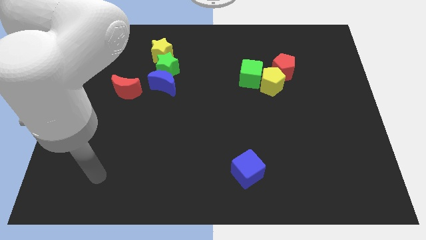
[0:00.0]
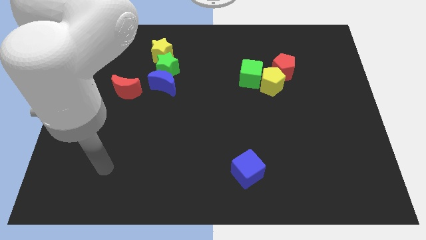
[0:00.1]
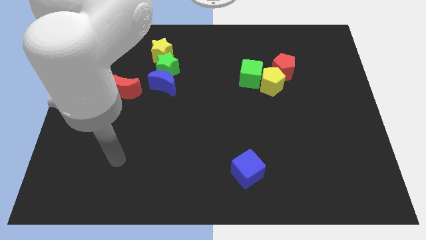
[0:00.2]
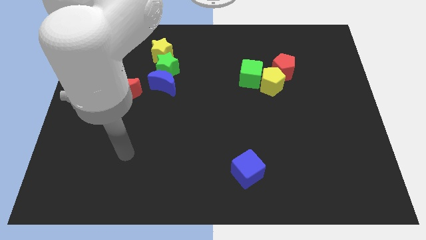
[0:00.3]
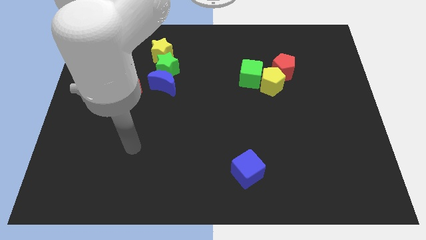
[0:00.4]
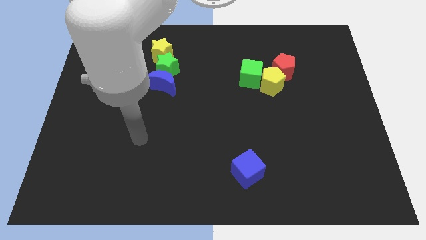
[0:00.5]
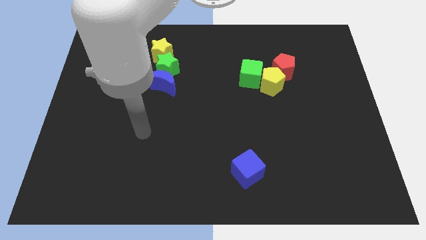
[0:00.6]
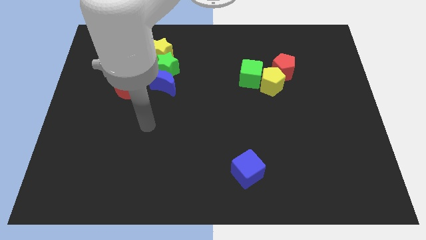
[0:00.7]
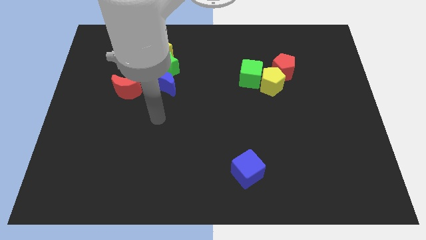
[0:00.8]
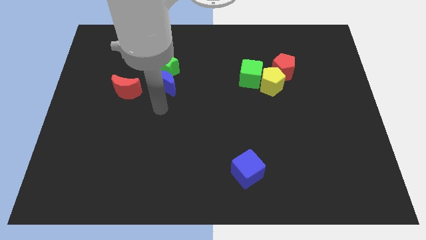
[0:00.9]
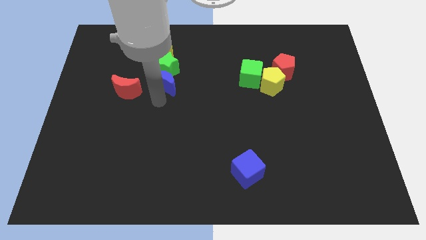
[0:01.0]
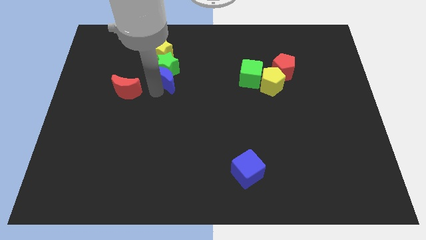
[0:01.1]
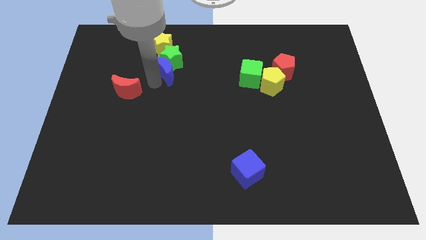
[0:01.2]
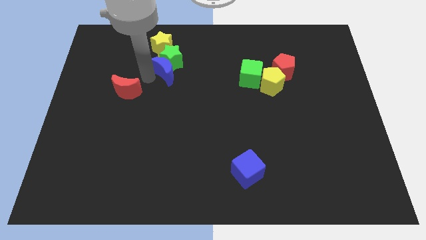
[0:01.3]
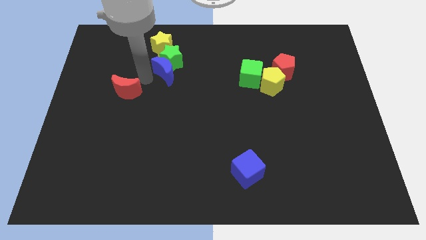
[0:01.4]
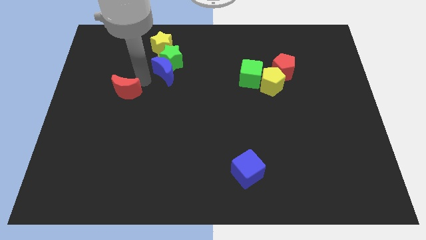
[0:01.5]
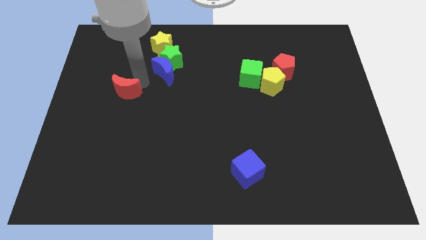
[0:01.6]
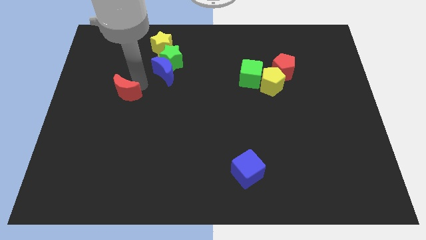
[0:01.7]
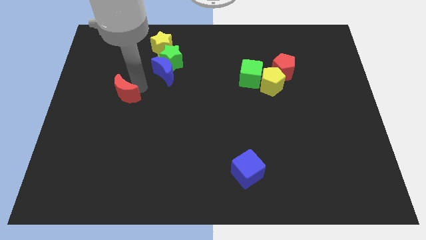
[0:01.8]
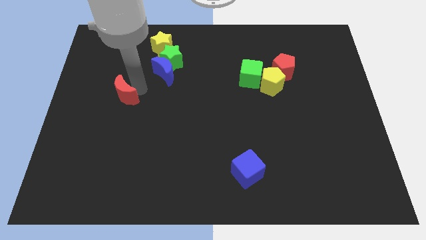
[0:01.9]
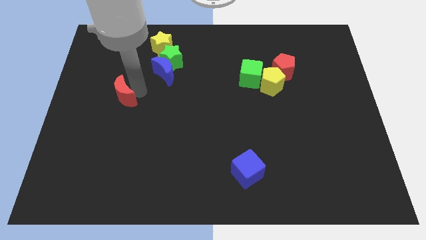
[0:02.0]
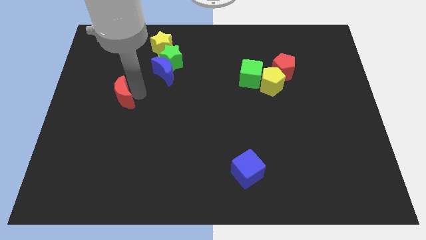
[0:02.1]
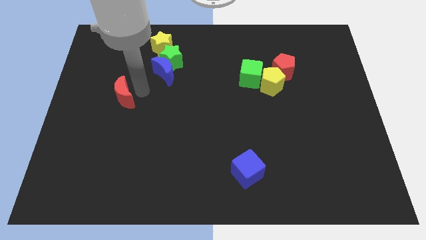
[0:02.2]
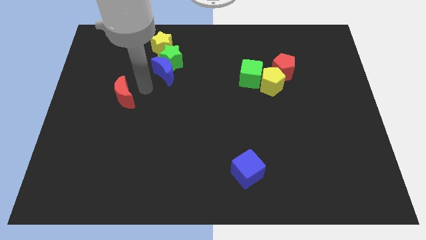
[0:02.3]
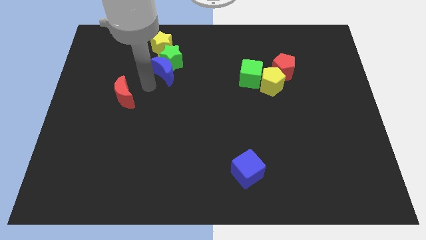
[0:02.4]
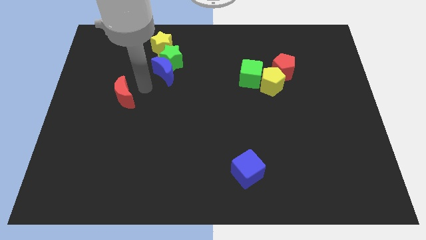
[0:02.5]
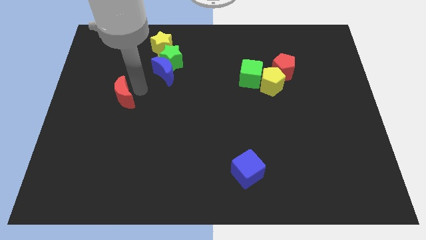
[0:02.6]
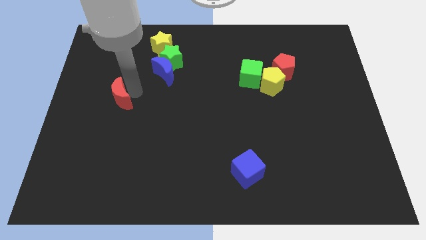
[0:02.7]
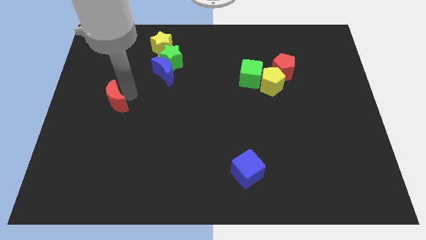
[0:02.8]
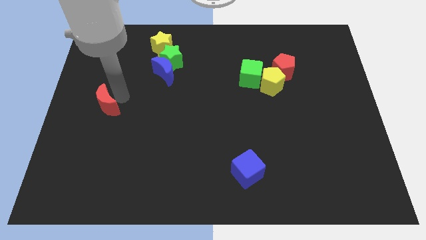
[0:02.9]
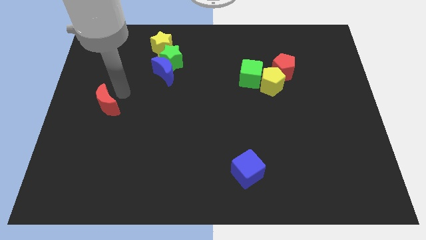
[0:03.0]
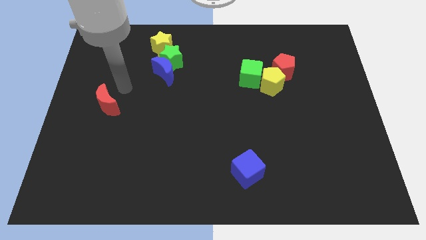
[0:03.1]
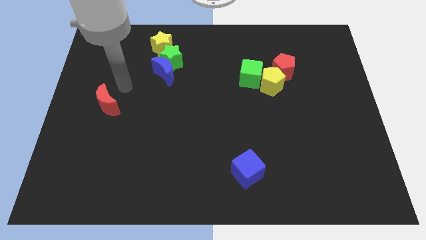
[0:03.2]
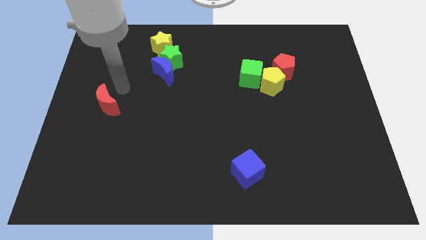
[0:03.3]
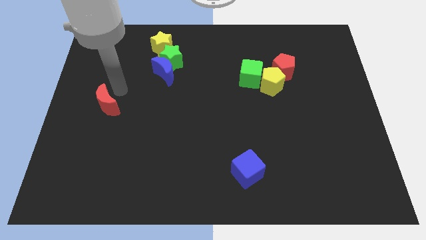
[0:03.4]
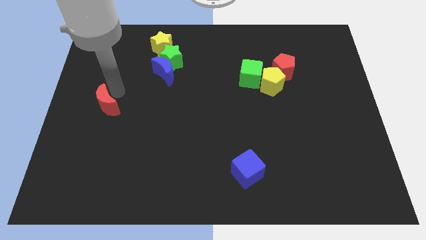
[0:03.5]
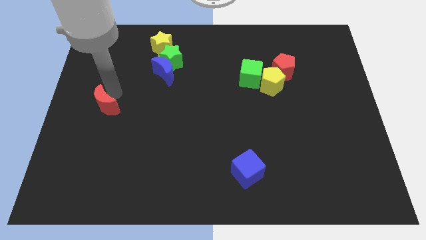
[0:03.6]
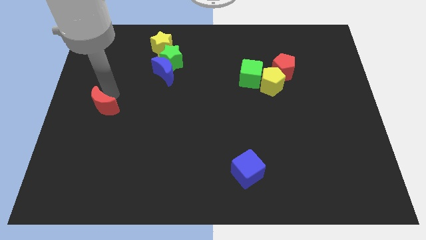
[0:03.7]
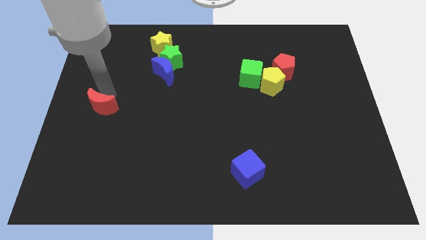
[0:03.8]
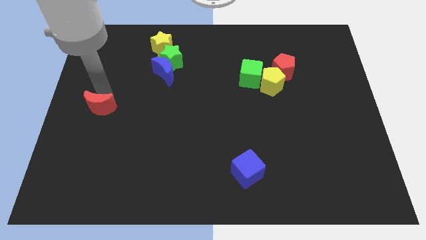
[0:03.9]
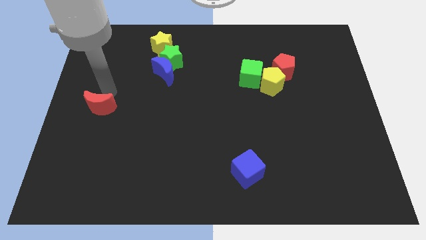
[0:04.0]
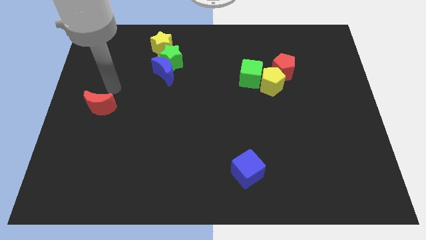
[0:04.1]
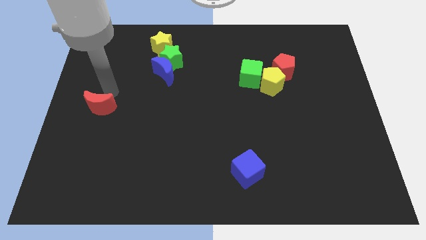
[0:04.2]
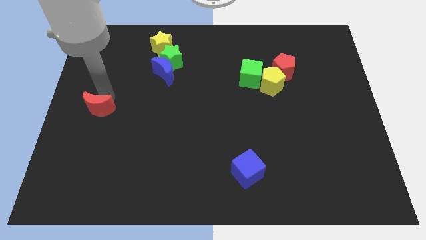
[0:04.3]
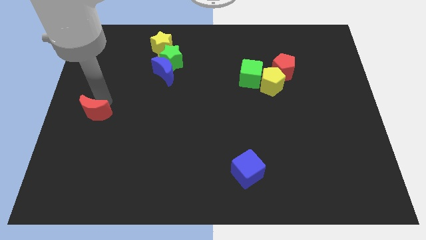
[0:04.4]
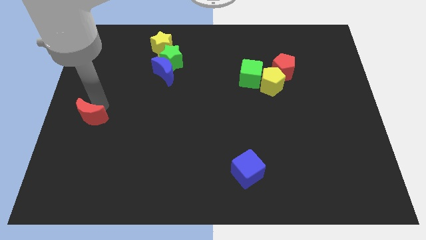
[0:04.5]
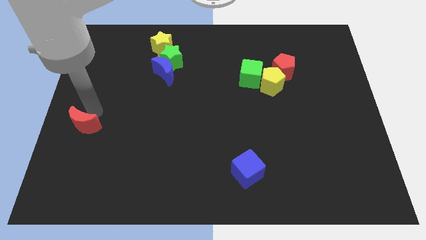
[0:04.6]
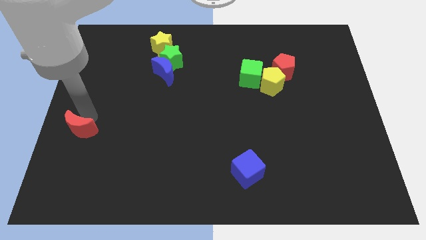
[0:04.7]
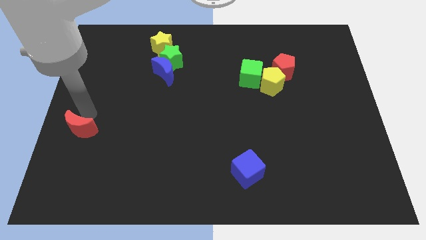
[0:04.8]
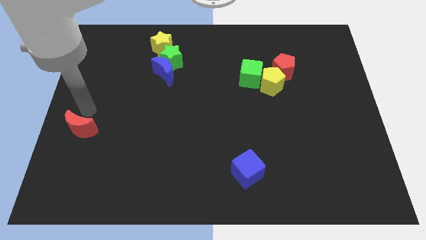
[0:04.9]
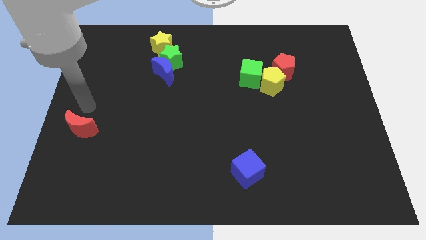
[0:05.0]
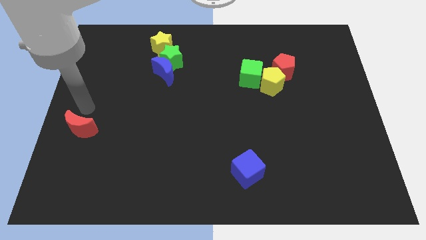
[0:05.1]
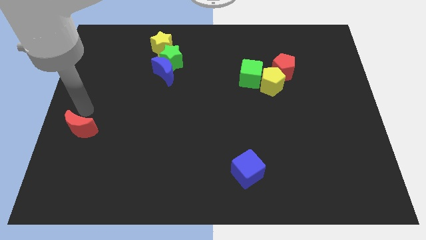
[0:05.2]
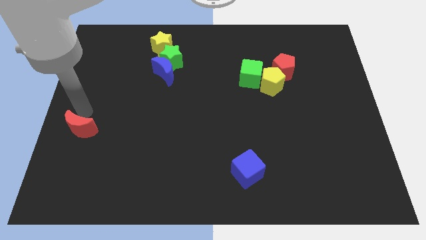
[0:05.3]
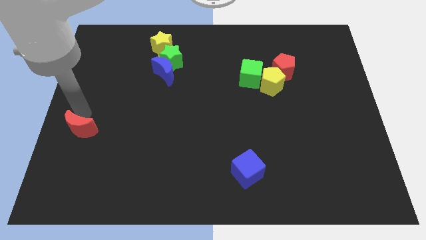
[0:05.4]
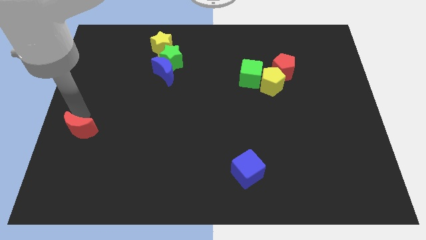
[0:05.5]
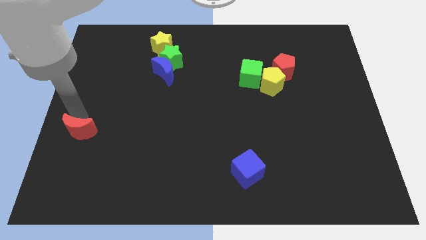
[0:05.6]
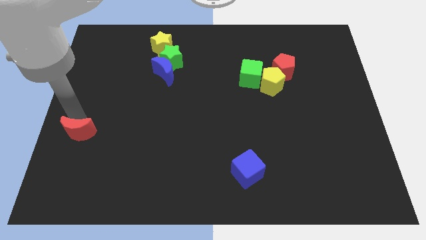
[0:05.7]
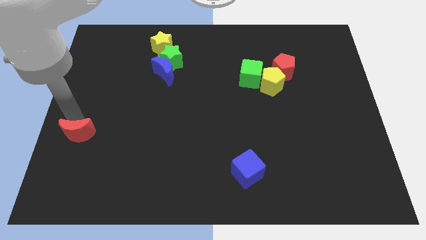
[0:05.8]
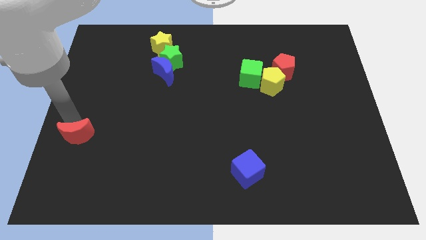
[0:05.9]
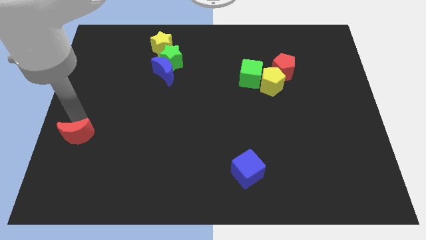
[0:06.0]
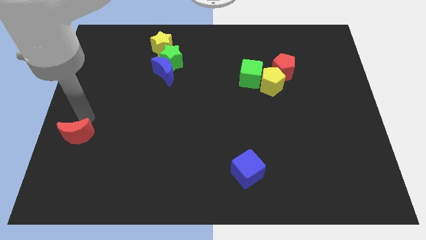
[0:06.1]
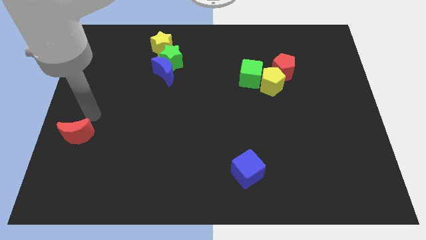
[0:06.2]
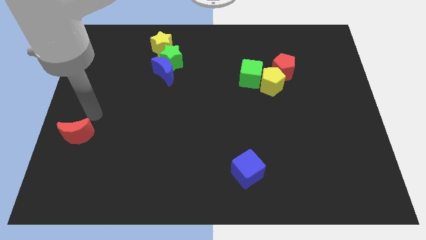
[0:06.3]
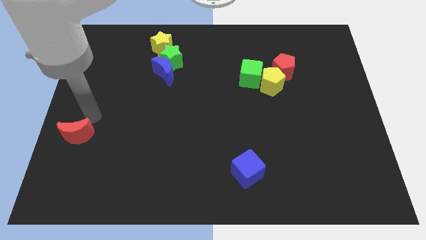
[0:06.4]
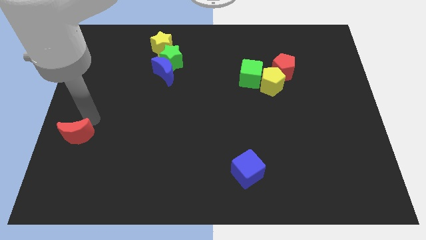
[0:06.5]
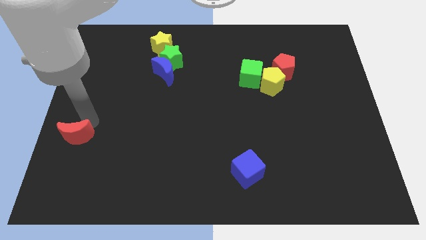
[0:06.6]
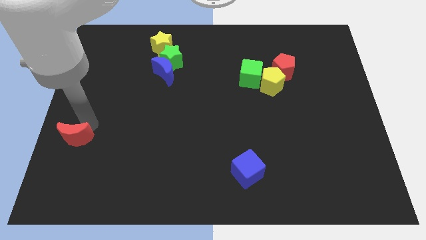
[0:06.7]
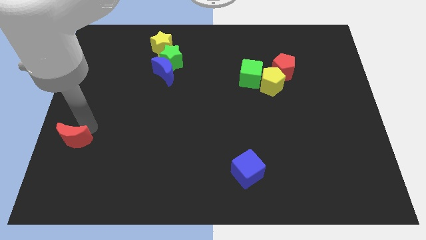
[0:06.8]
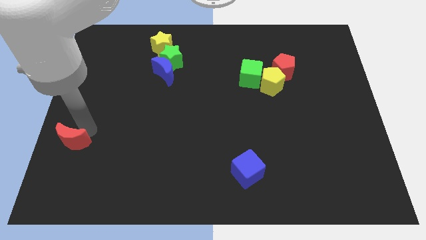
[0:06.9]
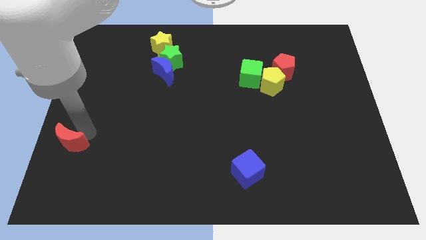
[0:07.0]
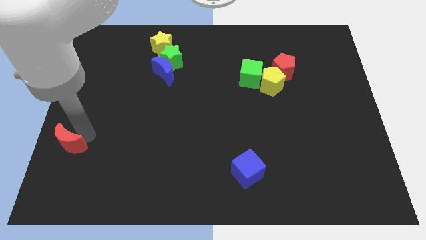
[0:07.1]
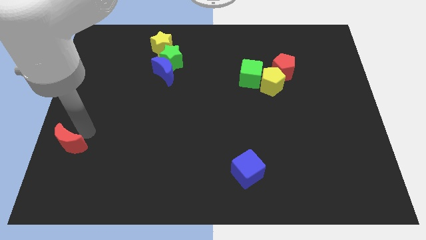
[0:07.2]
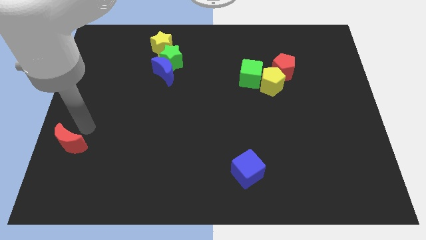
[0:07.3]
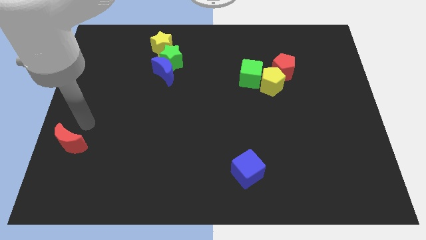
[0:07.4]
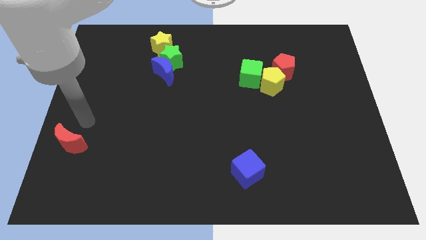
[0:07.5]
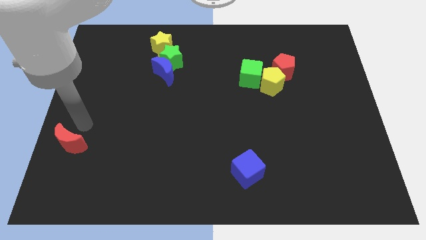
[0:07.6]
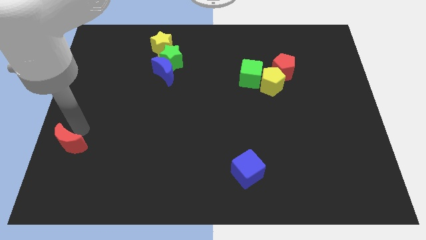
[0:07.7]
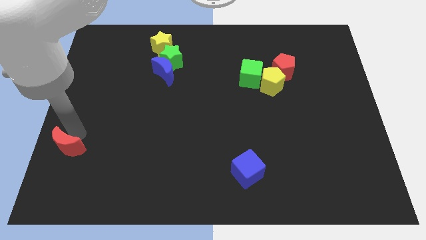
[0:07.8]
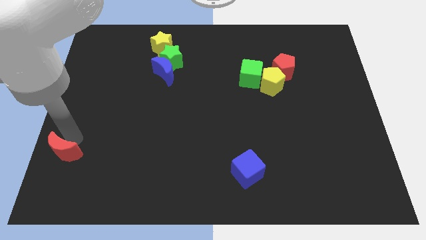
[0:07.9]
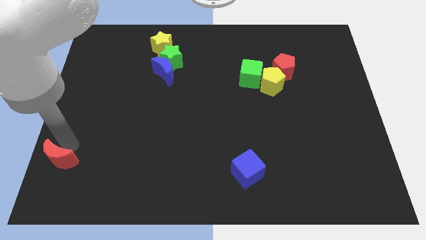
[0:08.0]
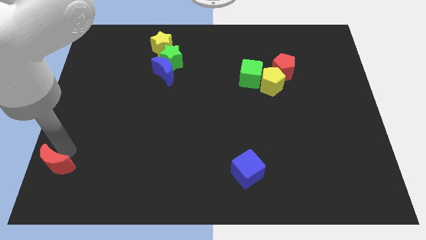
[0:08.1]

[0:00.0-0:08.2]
put the red moon to the lower left corner
